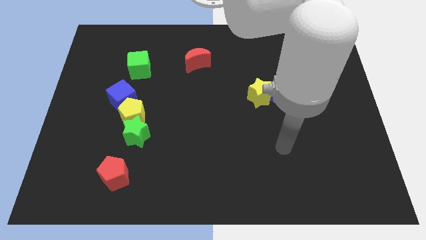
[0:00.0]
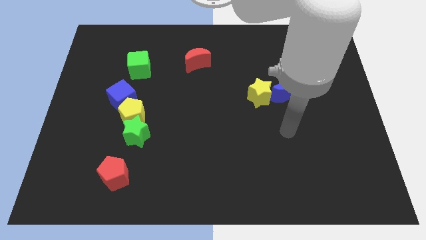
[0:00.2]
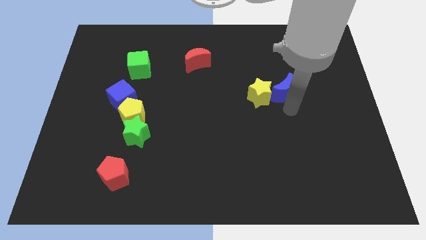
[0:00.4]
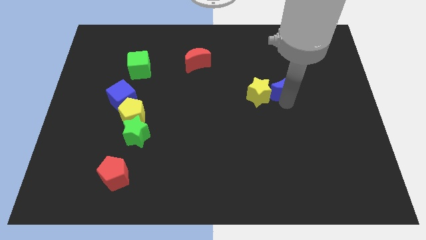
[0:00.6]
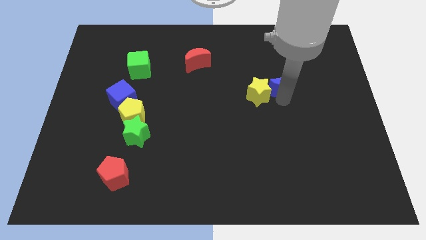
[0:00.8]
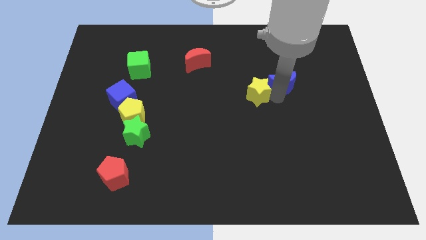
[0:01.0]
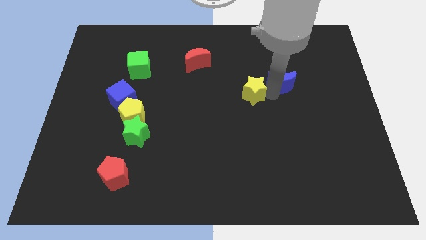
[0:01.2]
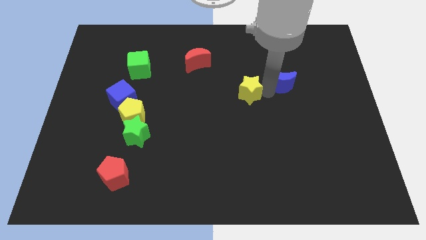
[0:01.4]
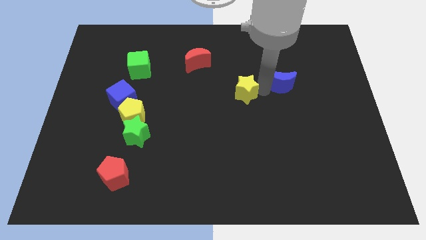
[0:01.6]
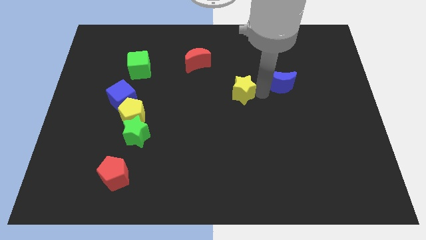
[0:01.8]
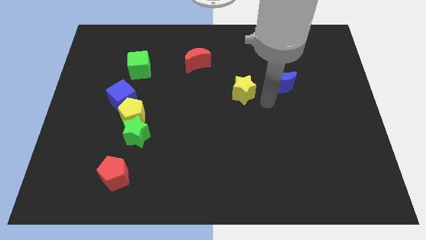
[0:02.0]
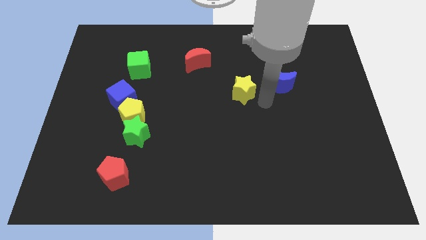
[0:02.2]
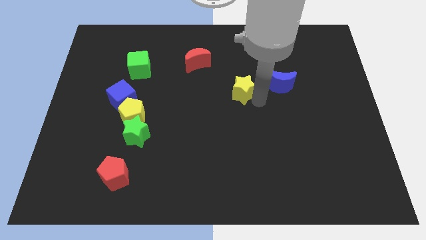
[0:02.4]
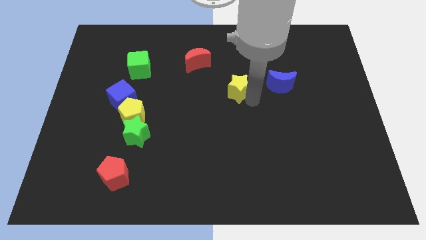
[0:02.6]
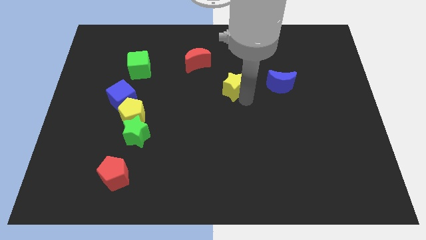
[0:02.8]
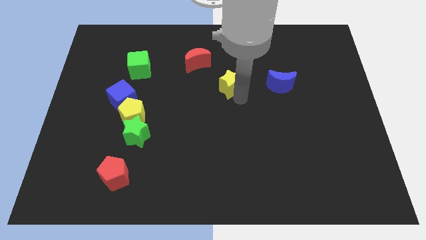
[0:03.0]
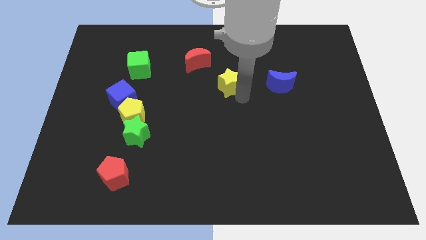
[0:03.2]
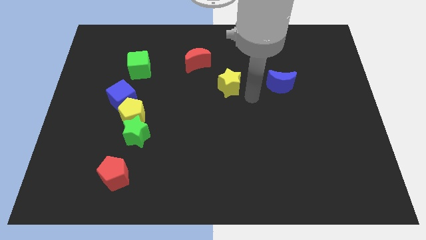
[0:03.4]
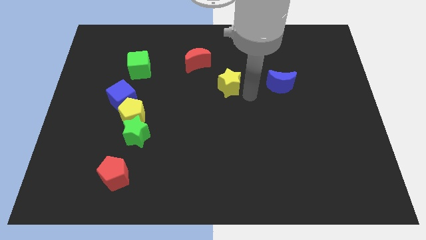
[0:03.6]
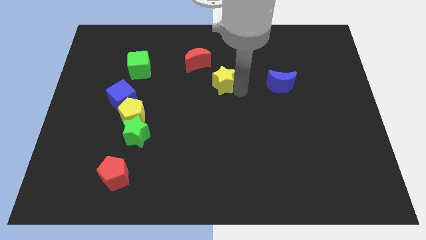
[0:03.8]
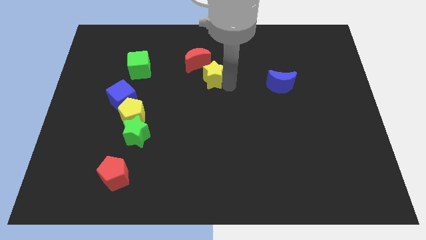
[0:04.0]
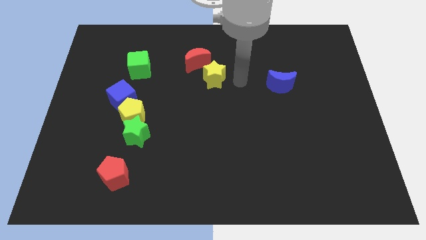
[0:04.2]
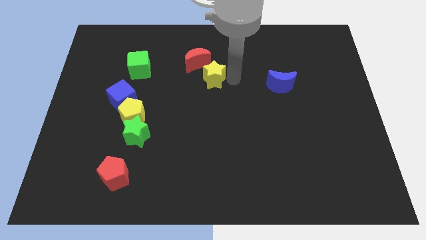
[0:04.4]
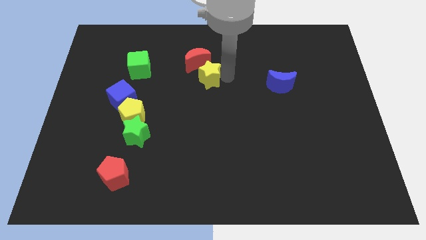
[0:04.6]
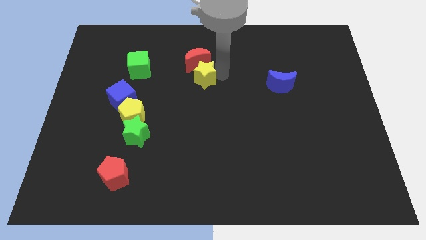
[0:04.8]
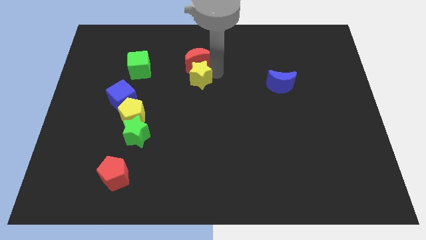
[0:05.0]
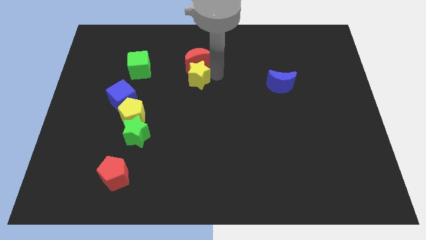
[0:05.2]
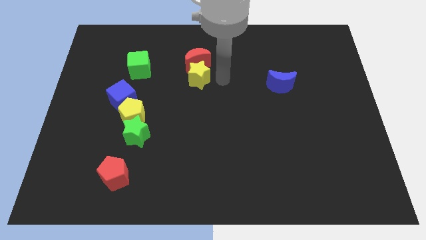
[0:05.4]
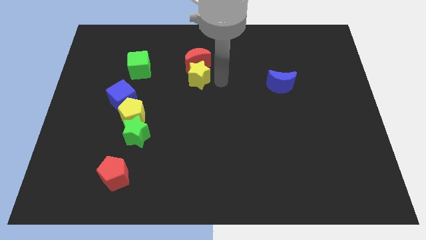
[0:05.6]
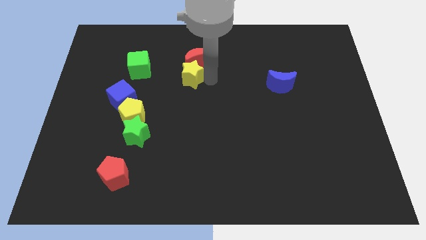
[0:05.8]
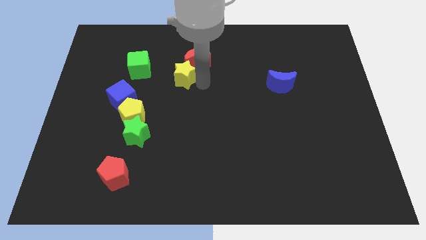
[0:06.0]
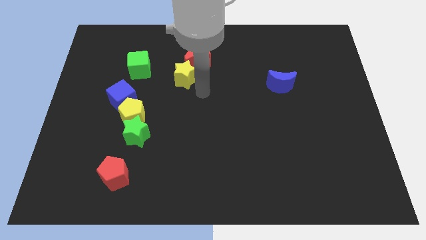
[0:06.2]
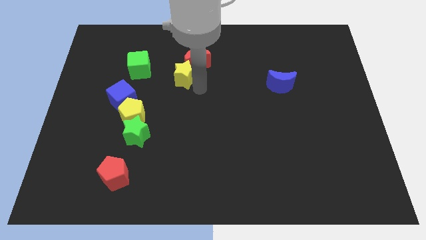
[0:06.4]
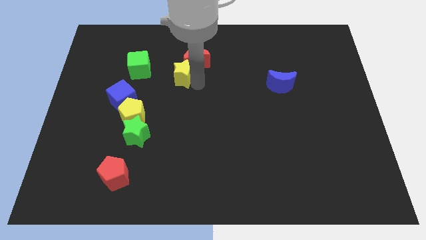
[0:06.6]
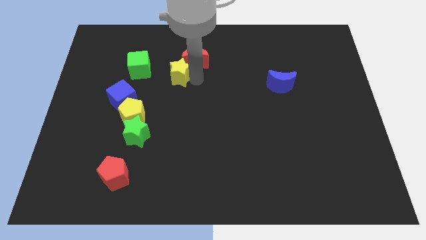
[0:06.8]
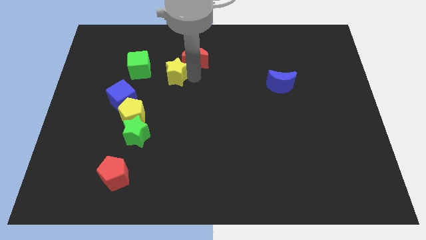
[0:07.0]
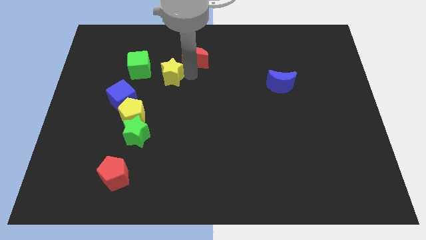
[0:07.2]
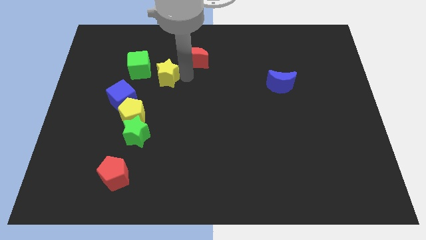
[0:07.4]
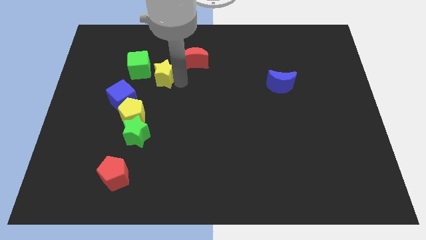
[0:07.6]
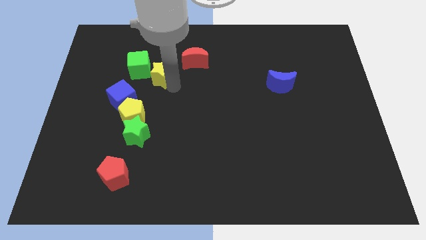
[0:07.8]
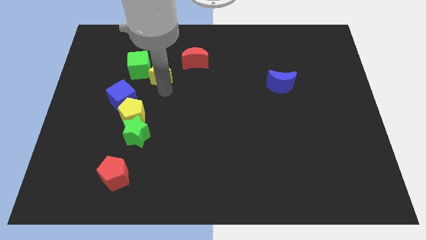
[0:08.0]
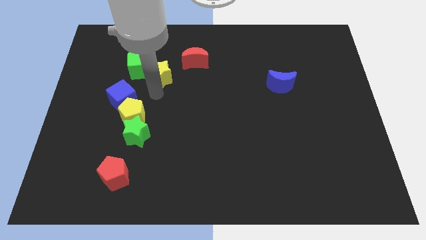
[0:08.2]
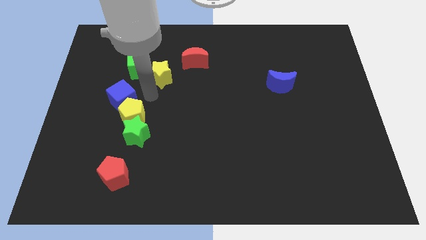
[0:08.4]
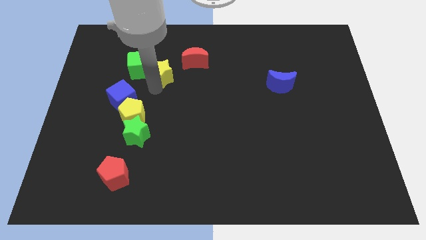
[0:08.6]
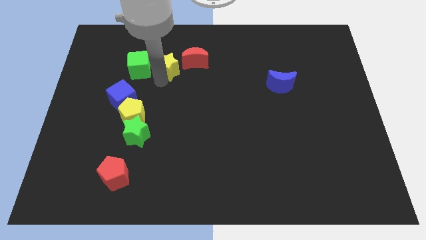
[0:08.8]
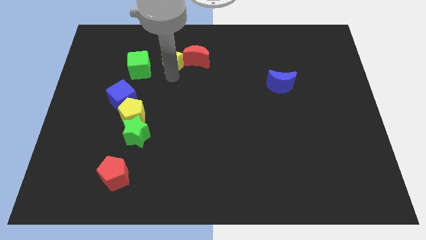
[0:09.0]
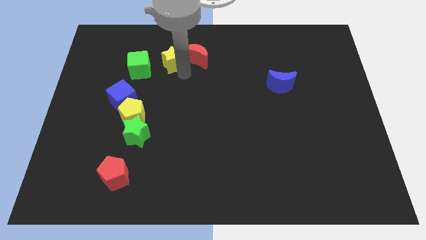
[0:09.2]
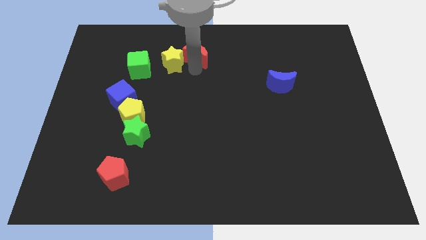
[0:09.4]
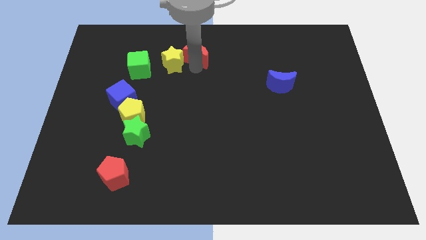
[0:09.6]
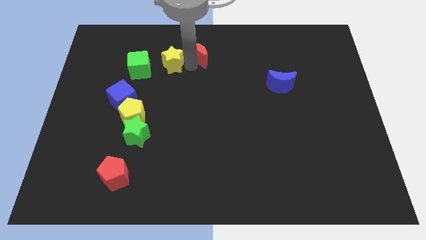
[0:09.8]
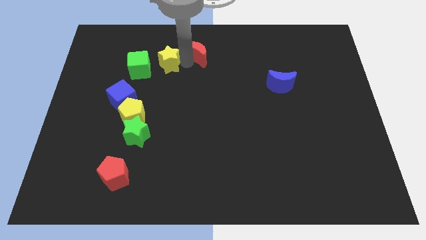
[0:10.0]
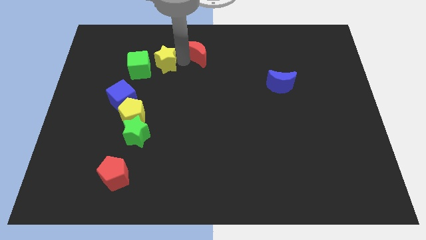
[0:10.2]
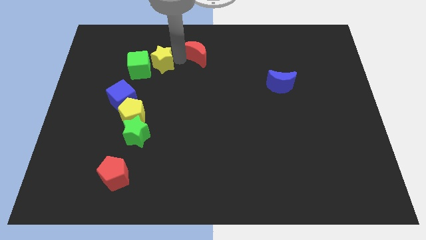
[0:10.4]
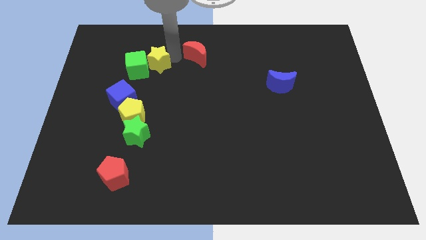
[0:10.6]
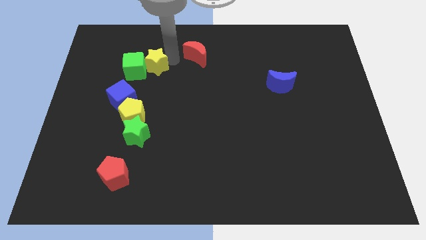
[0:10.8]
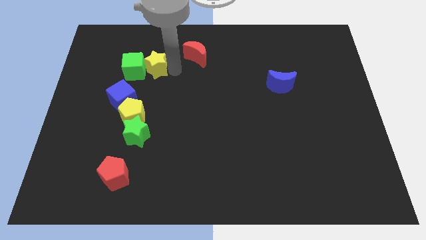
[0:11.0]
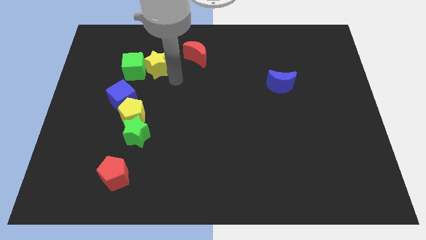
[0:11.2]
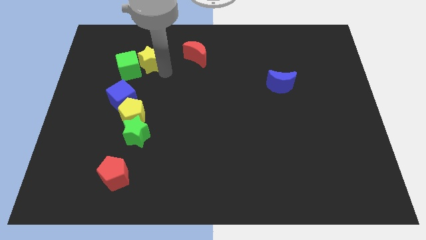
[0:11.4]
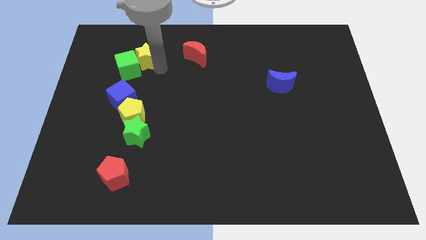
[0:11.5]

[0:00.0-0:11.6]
push the yellow star above the blue cube

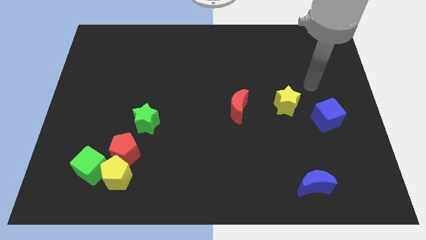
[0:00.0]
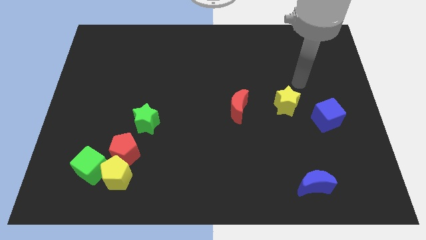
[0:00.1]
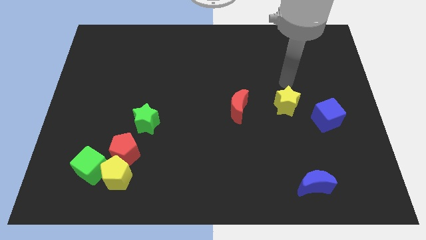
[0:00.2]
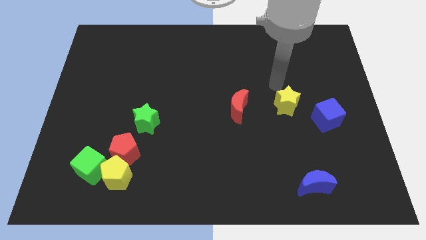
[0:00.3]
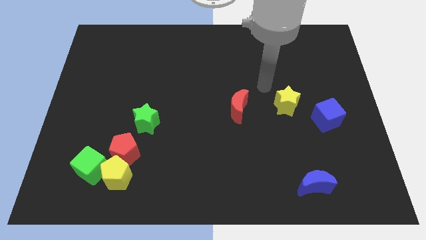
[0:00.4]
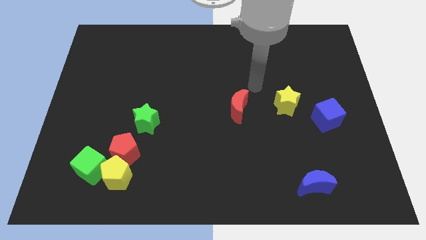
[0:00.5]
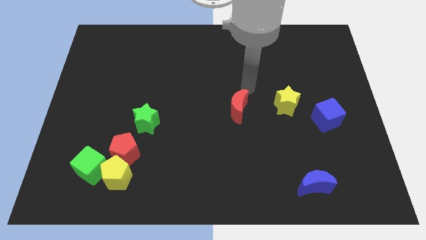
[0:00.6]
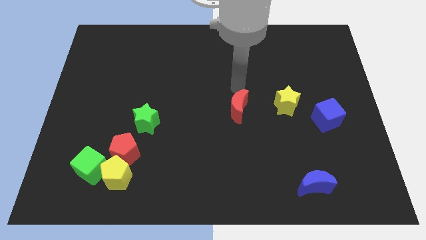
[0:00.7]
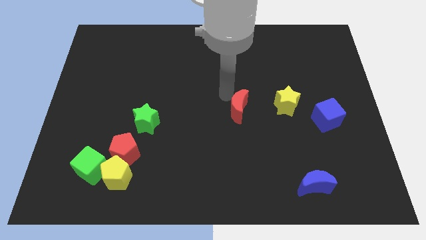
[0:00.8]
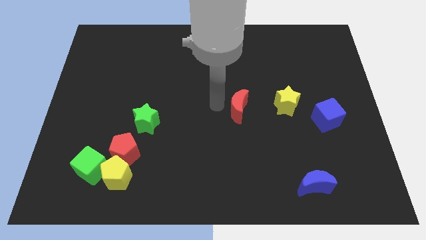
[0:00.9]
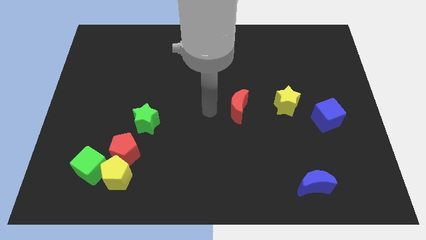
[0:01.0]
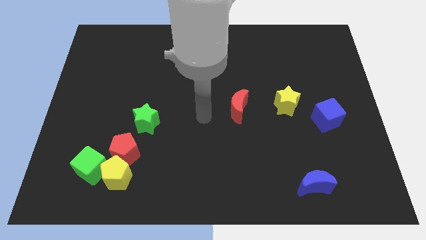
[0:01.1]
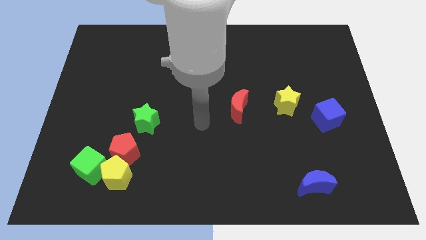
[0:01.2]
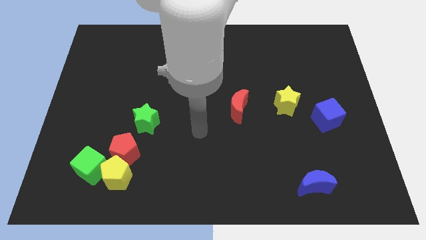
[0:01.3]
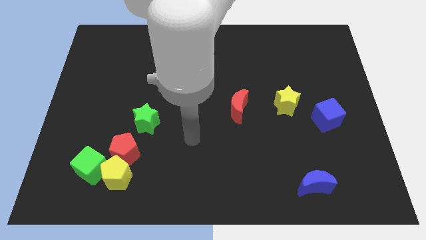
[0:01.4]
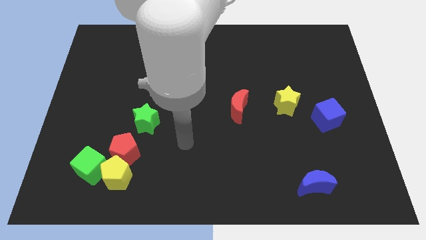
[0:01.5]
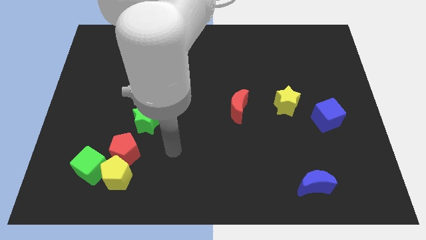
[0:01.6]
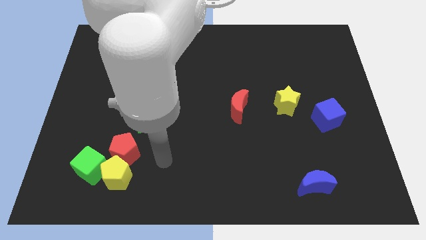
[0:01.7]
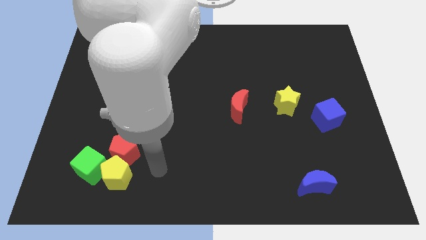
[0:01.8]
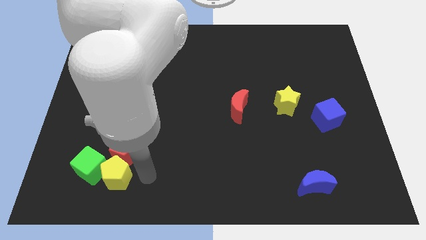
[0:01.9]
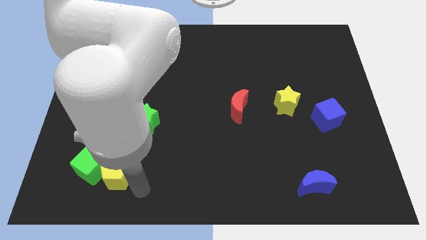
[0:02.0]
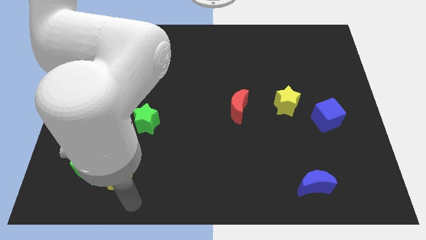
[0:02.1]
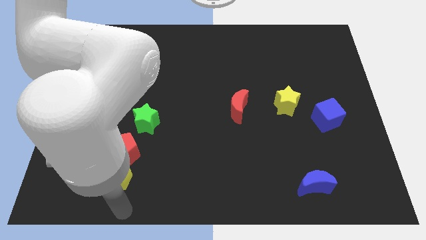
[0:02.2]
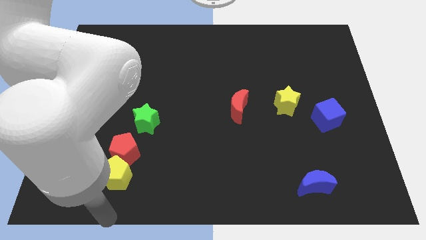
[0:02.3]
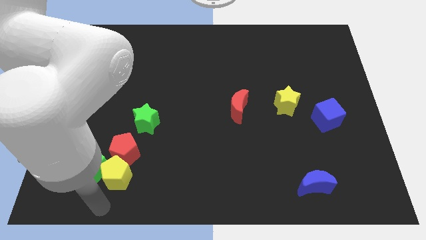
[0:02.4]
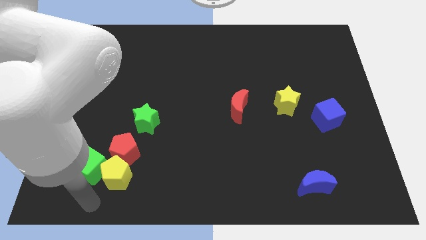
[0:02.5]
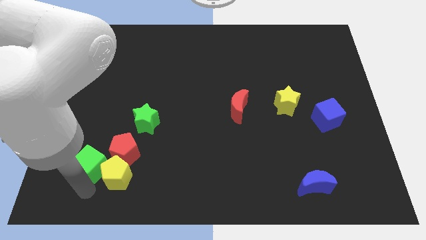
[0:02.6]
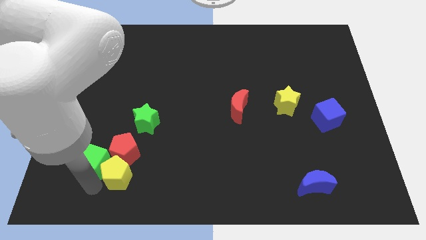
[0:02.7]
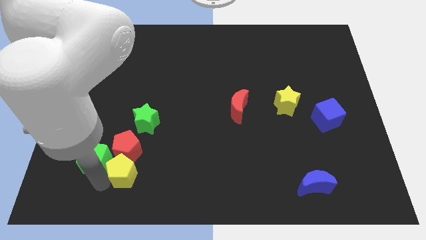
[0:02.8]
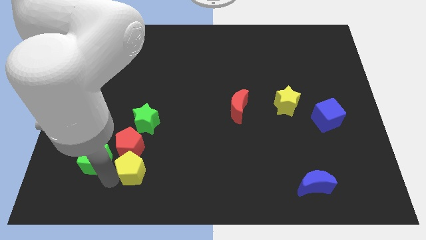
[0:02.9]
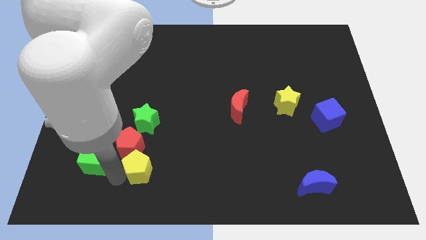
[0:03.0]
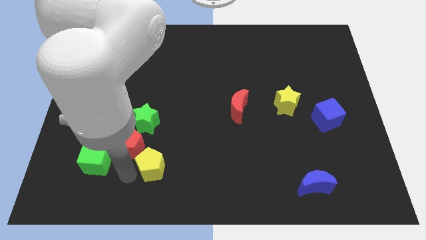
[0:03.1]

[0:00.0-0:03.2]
put the yellow pentagon to the right side of the red pentagon
